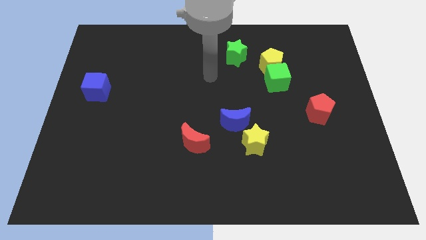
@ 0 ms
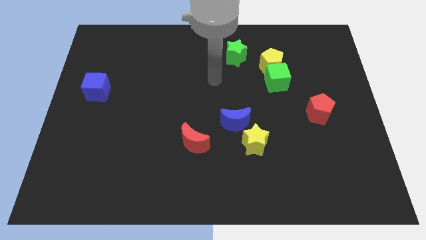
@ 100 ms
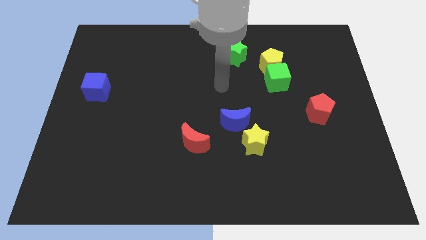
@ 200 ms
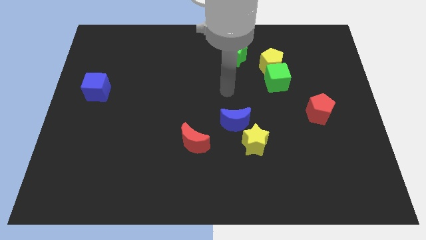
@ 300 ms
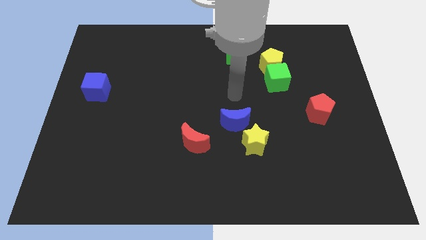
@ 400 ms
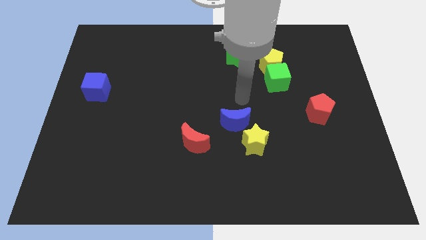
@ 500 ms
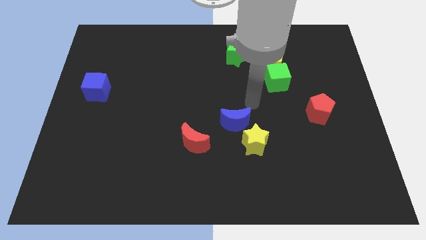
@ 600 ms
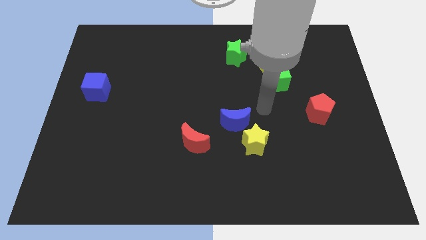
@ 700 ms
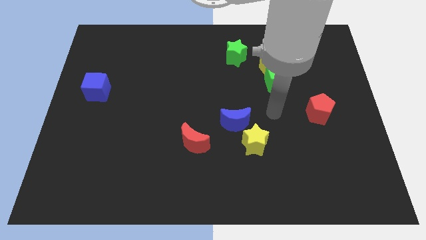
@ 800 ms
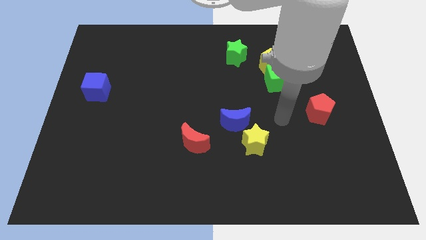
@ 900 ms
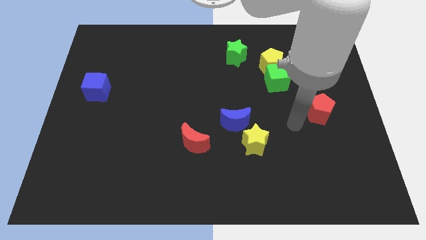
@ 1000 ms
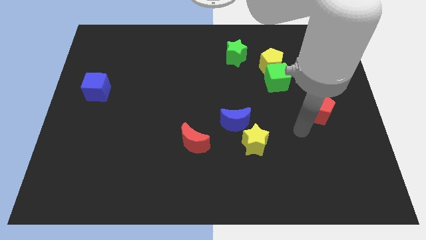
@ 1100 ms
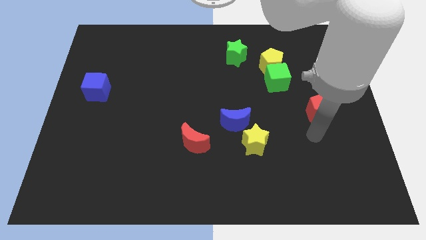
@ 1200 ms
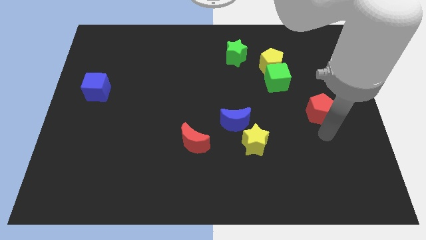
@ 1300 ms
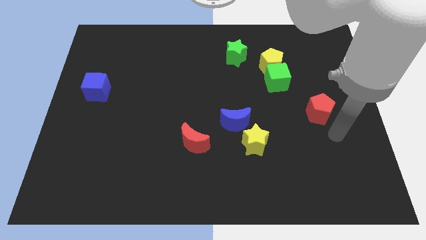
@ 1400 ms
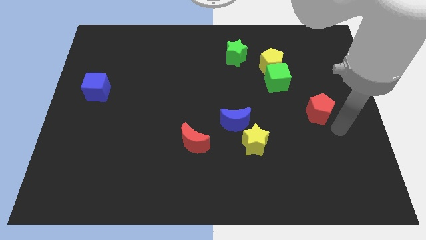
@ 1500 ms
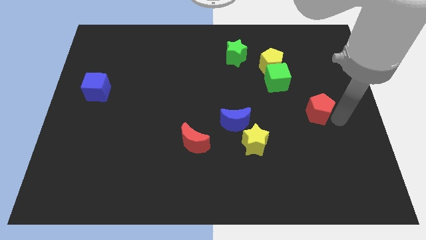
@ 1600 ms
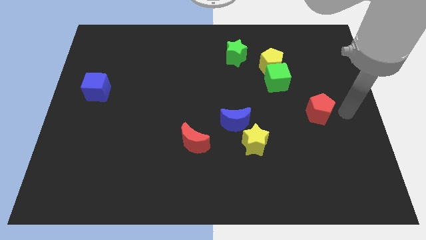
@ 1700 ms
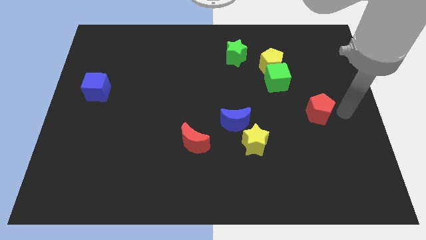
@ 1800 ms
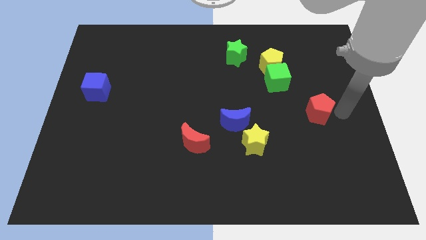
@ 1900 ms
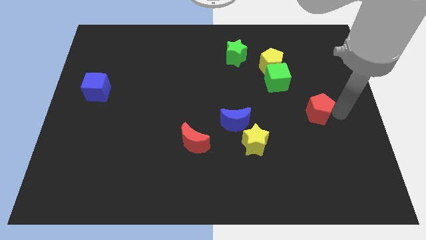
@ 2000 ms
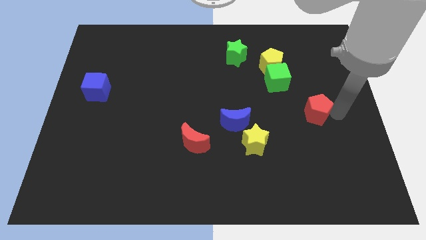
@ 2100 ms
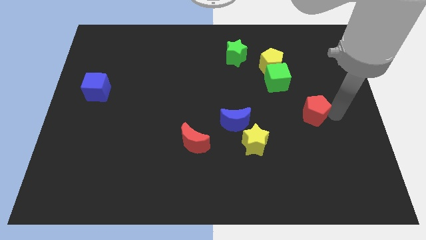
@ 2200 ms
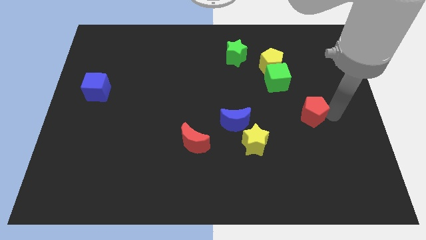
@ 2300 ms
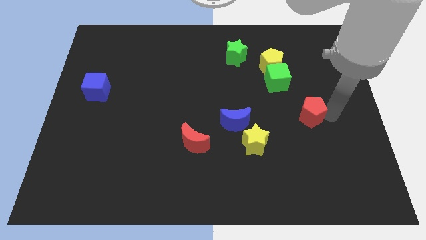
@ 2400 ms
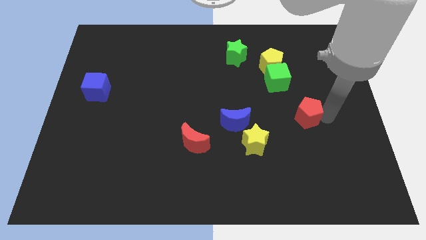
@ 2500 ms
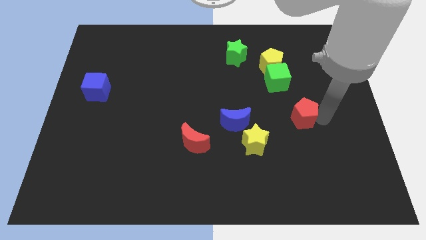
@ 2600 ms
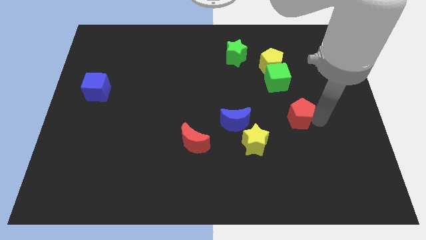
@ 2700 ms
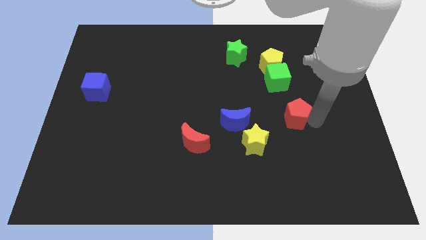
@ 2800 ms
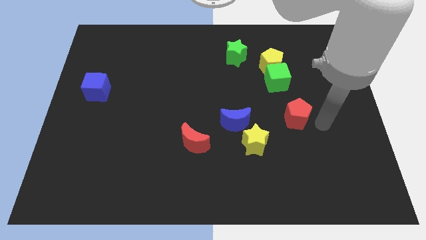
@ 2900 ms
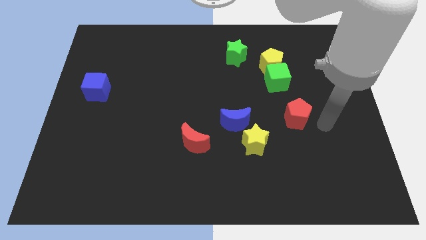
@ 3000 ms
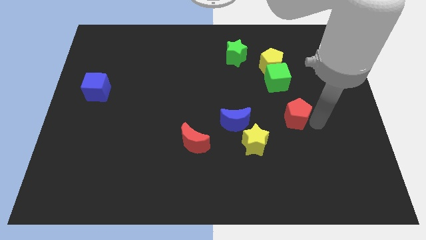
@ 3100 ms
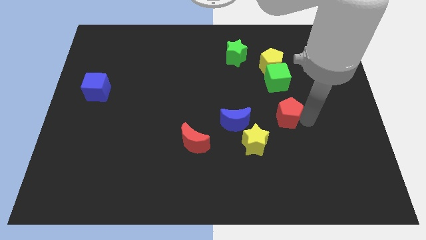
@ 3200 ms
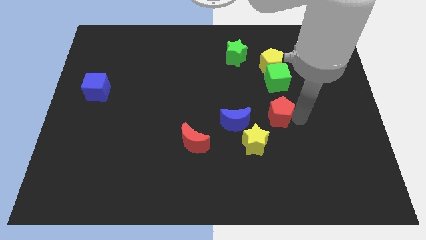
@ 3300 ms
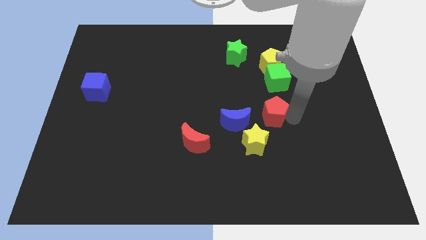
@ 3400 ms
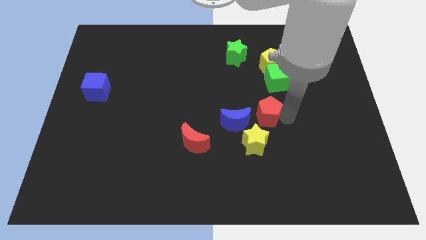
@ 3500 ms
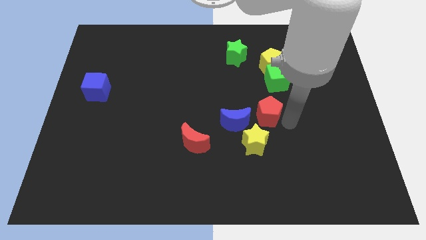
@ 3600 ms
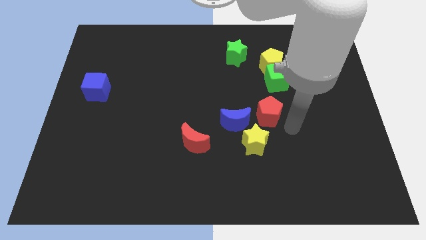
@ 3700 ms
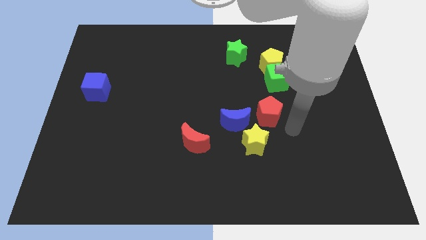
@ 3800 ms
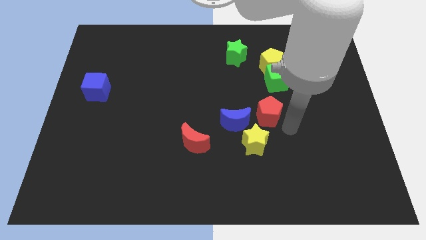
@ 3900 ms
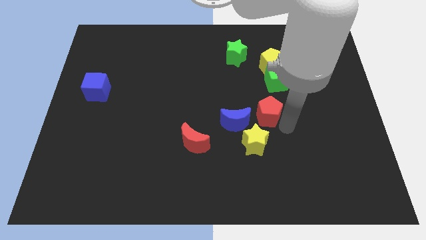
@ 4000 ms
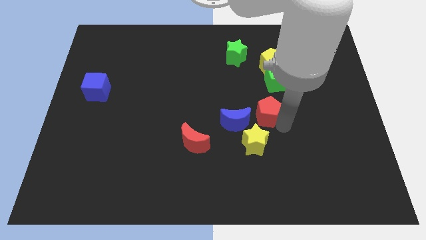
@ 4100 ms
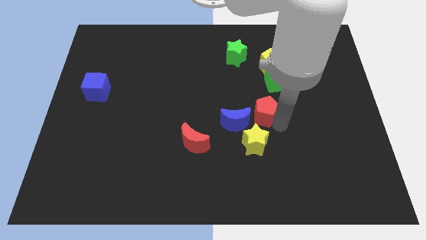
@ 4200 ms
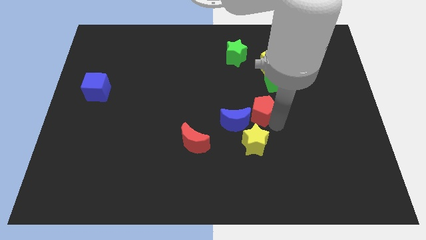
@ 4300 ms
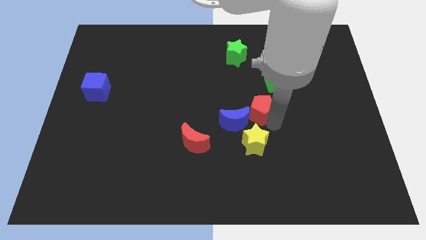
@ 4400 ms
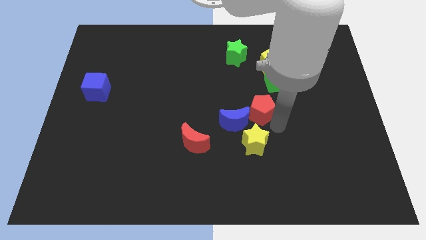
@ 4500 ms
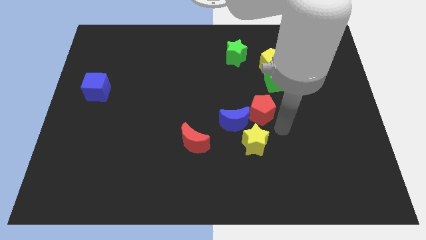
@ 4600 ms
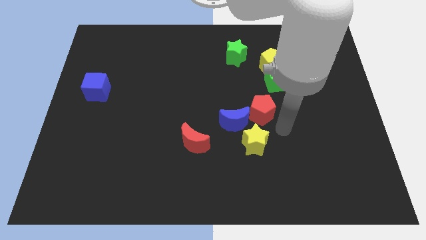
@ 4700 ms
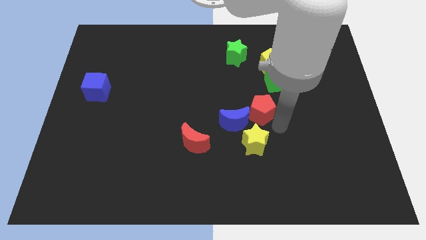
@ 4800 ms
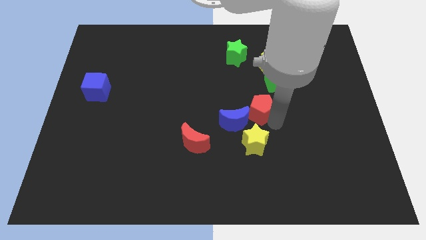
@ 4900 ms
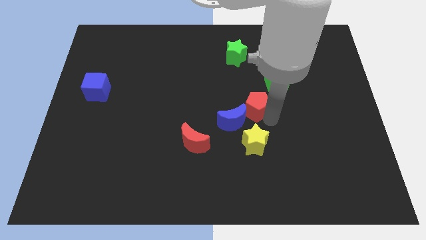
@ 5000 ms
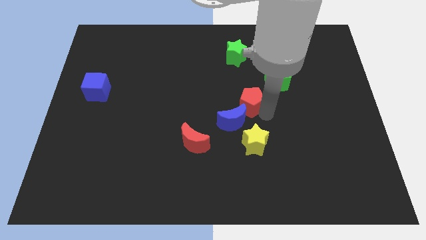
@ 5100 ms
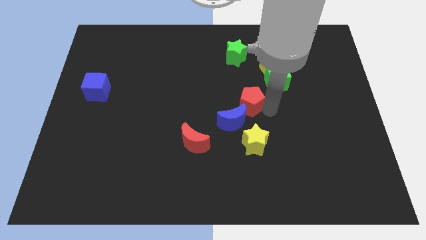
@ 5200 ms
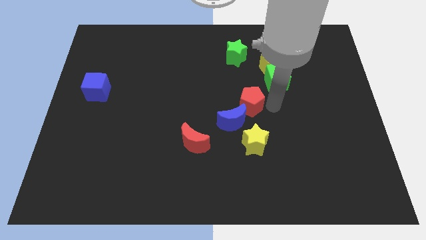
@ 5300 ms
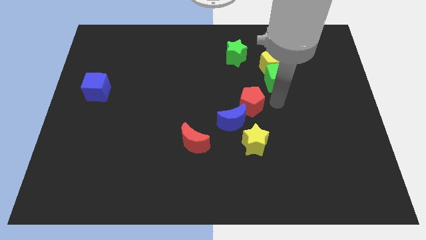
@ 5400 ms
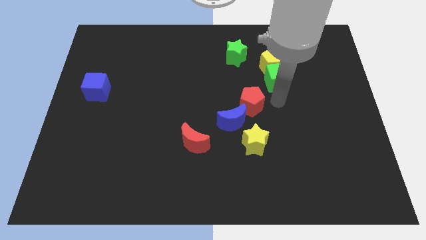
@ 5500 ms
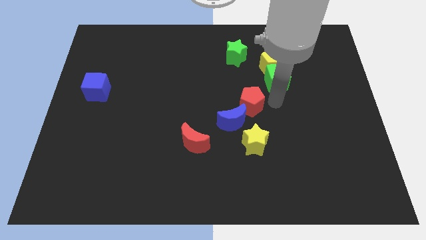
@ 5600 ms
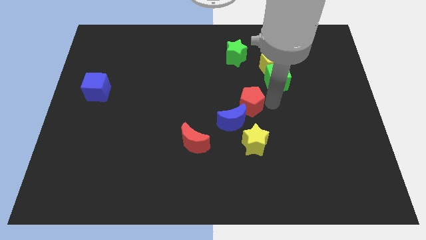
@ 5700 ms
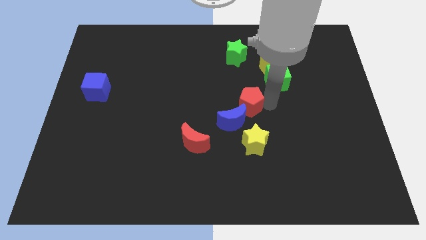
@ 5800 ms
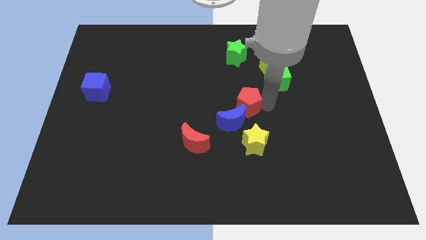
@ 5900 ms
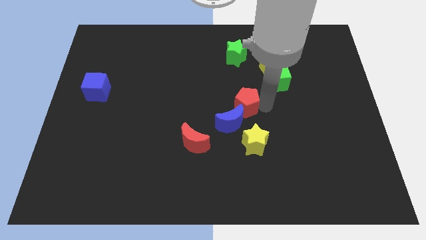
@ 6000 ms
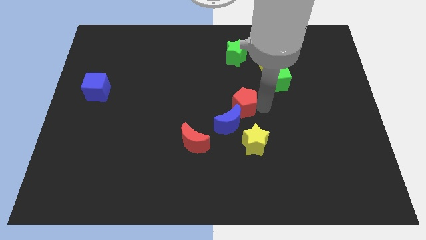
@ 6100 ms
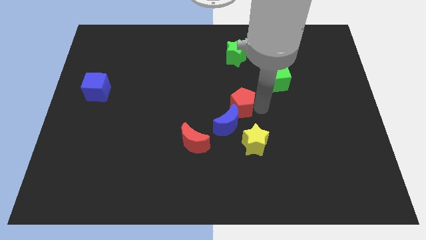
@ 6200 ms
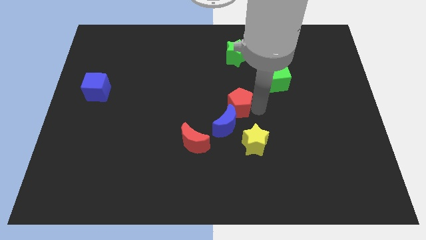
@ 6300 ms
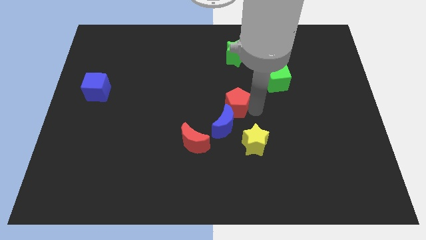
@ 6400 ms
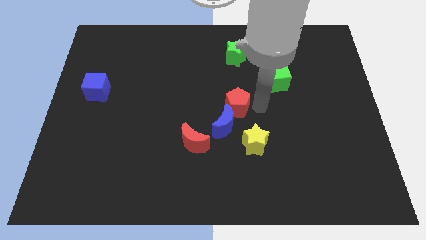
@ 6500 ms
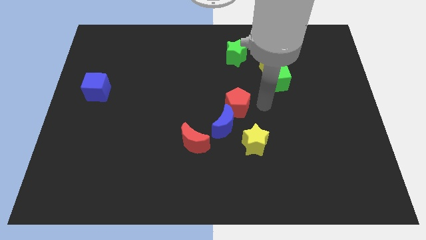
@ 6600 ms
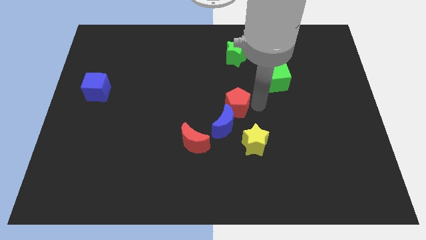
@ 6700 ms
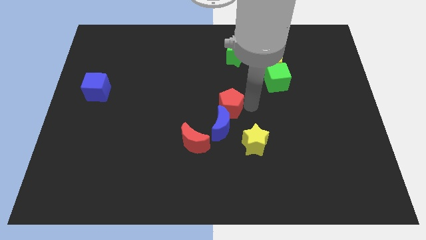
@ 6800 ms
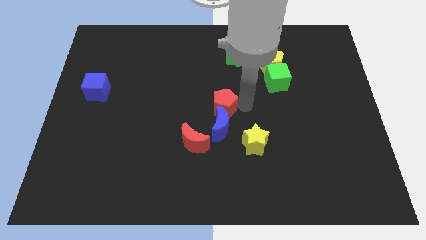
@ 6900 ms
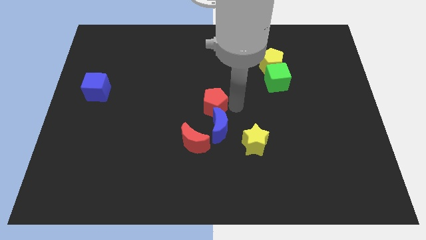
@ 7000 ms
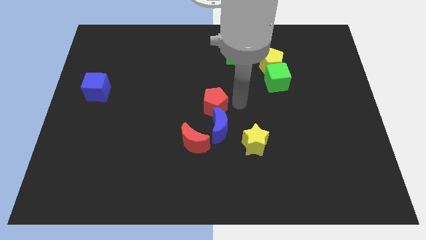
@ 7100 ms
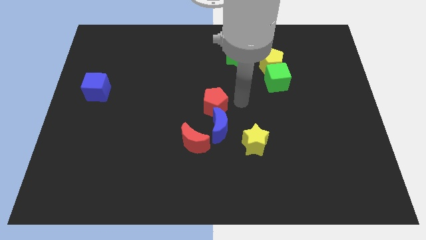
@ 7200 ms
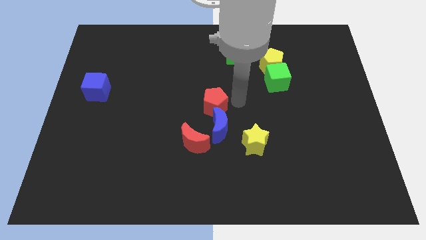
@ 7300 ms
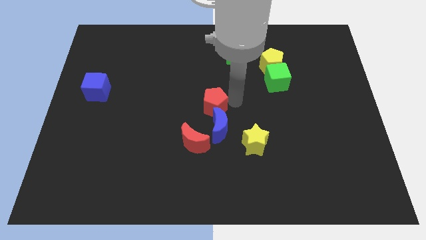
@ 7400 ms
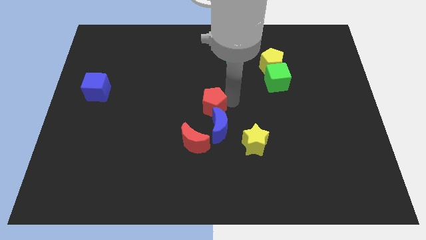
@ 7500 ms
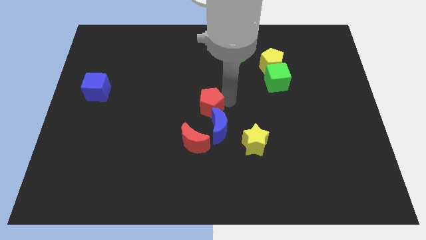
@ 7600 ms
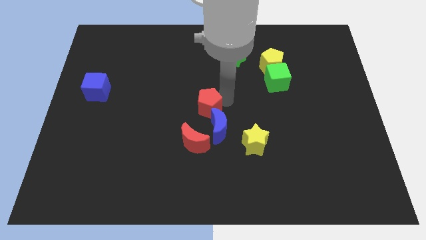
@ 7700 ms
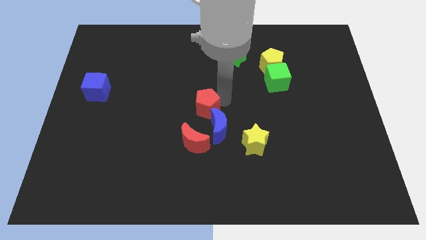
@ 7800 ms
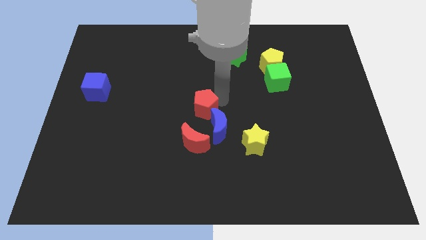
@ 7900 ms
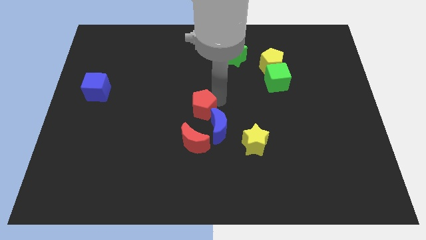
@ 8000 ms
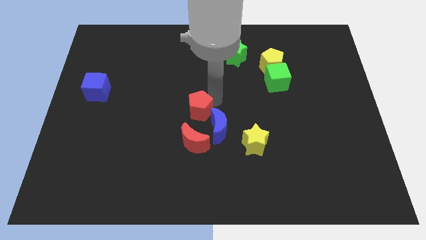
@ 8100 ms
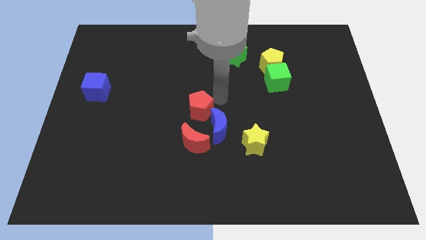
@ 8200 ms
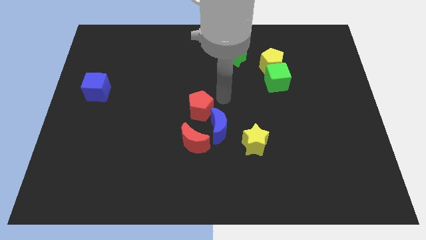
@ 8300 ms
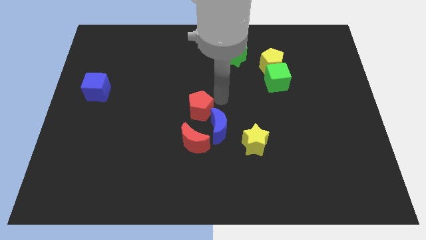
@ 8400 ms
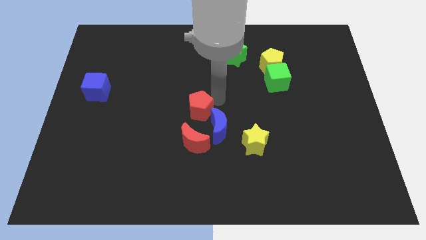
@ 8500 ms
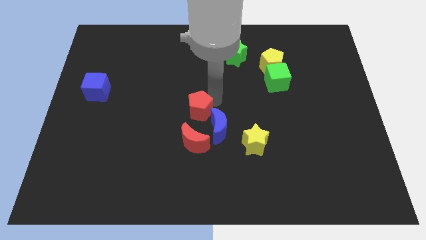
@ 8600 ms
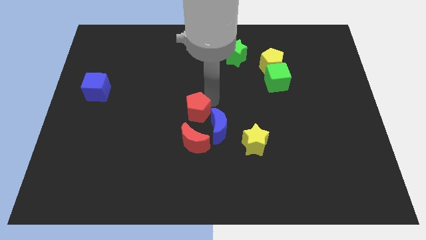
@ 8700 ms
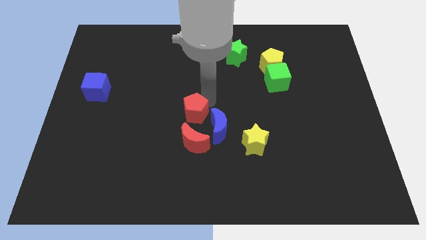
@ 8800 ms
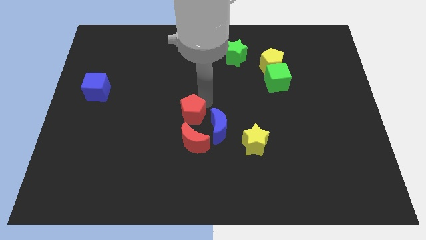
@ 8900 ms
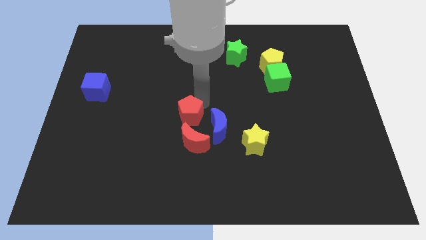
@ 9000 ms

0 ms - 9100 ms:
put the red pentagon to the top left side of the red moon
